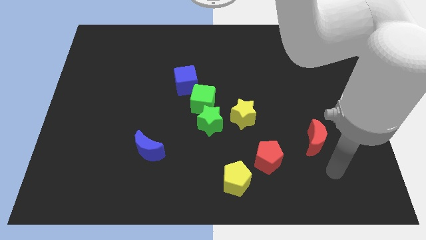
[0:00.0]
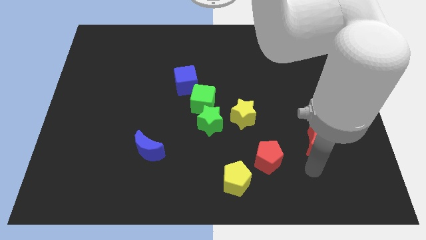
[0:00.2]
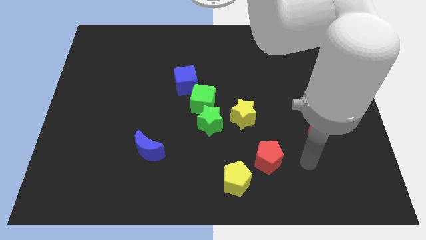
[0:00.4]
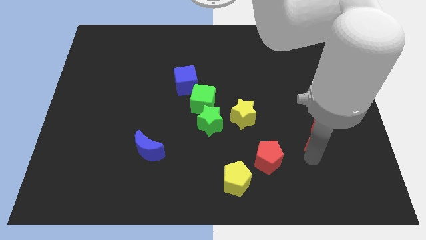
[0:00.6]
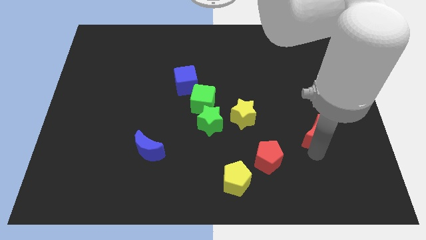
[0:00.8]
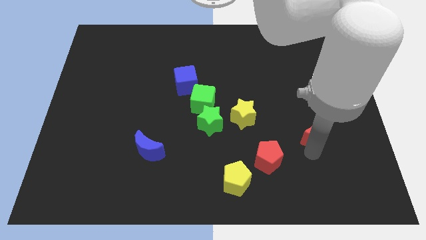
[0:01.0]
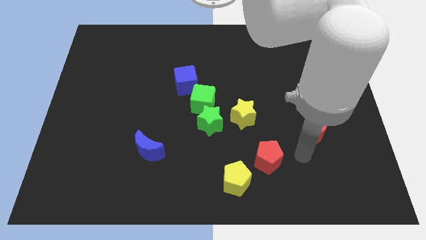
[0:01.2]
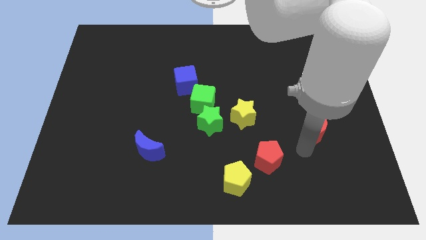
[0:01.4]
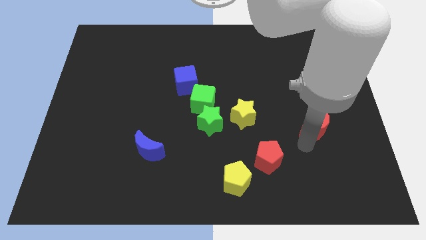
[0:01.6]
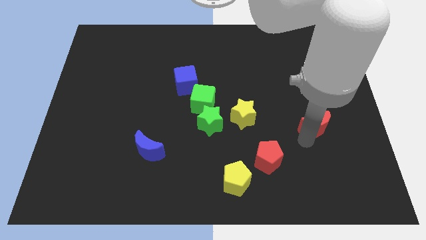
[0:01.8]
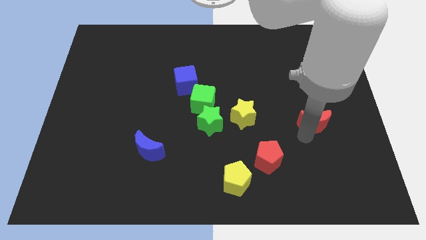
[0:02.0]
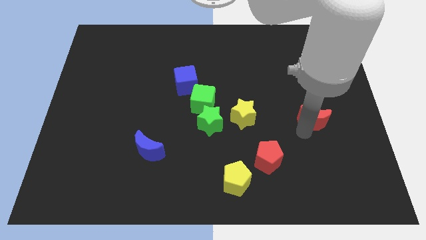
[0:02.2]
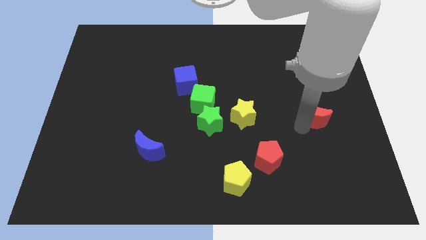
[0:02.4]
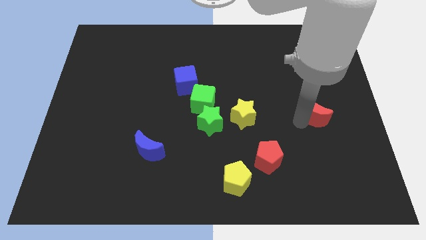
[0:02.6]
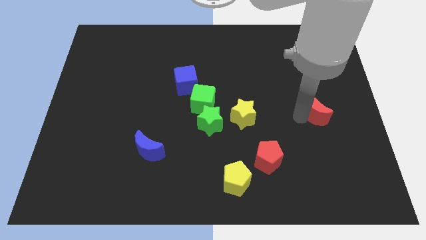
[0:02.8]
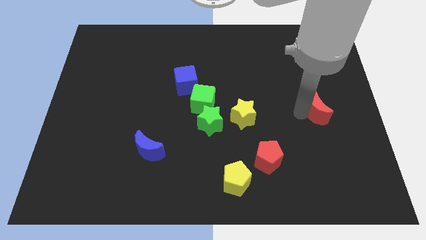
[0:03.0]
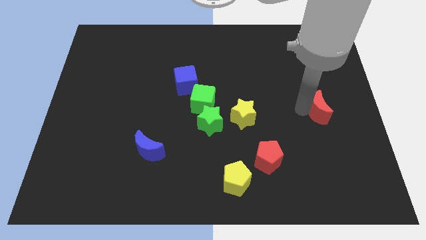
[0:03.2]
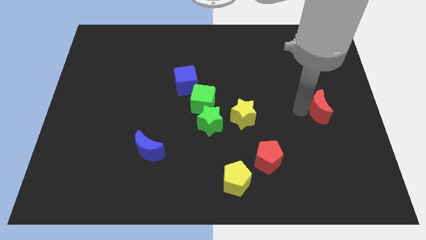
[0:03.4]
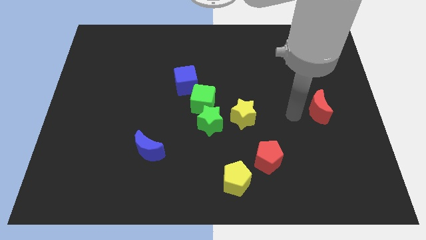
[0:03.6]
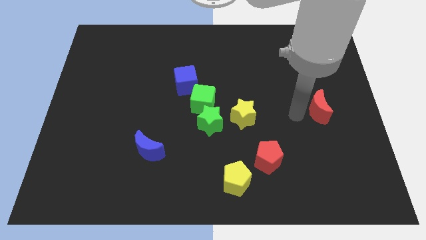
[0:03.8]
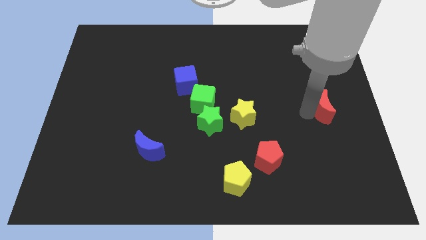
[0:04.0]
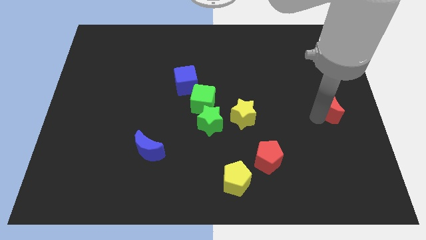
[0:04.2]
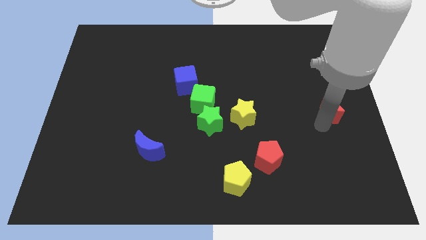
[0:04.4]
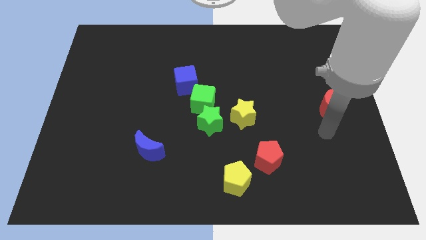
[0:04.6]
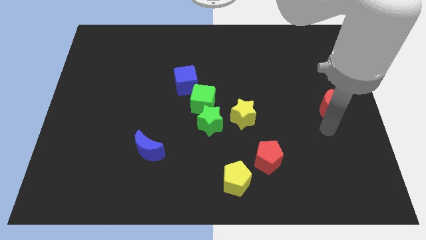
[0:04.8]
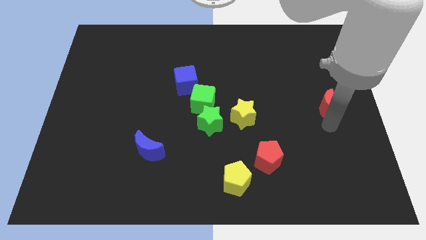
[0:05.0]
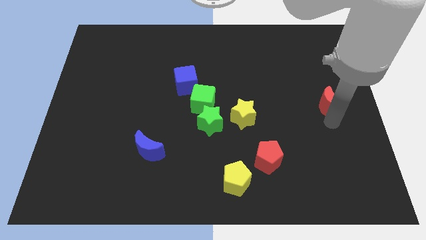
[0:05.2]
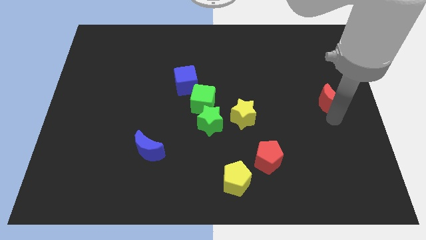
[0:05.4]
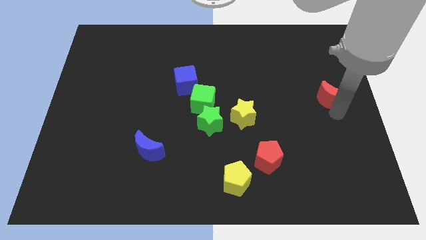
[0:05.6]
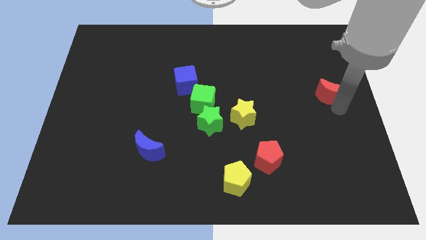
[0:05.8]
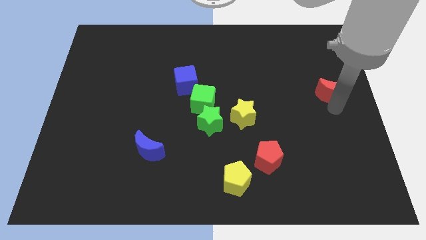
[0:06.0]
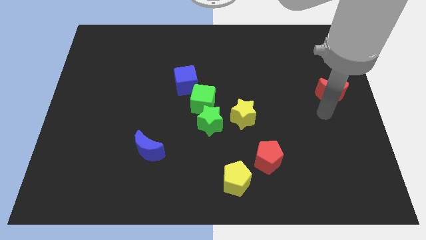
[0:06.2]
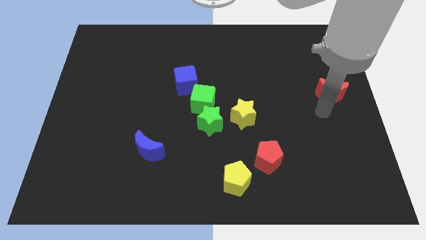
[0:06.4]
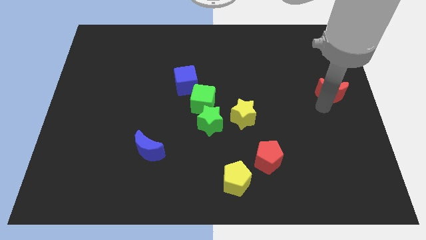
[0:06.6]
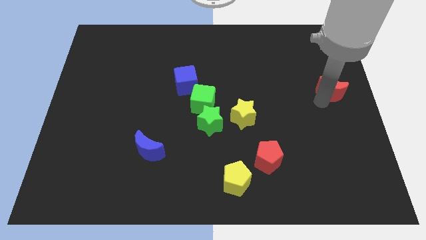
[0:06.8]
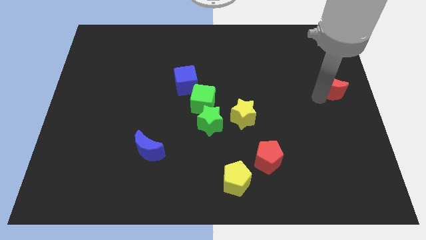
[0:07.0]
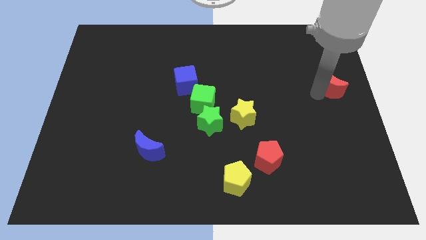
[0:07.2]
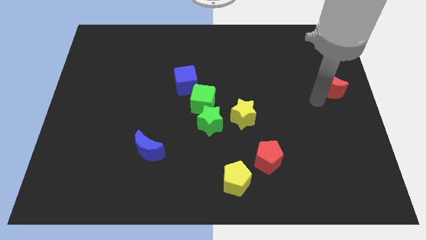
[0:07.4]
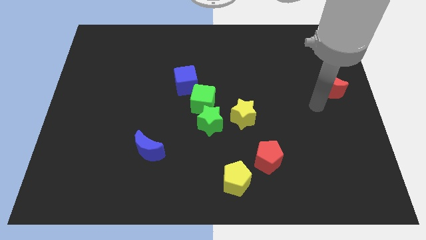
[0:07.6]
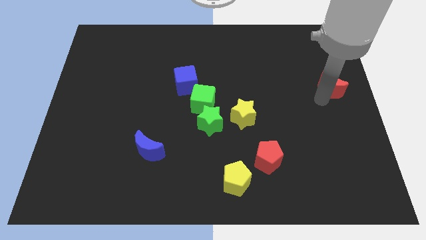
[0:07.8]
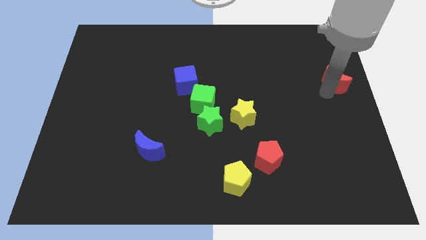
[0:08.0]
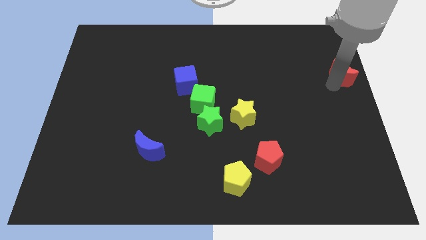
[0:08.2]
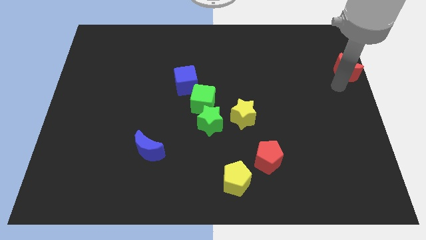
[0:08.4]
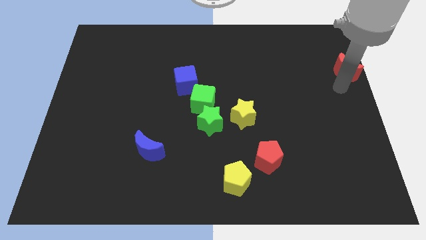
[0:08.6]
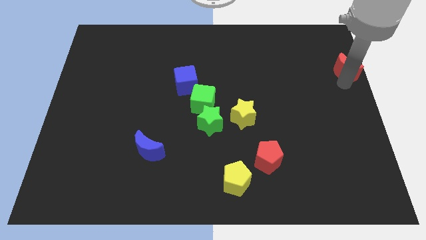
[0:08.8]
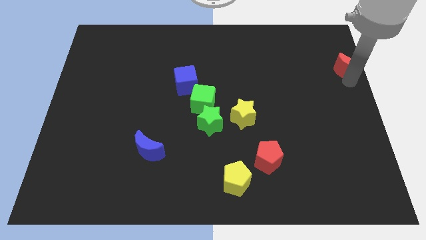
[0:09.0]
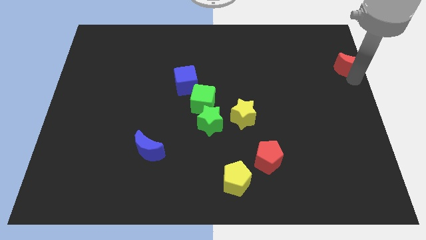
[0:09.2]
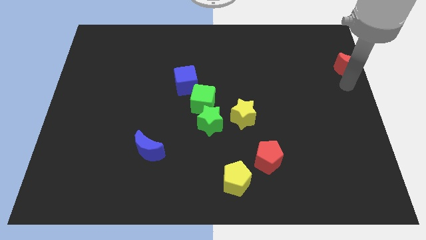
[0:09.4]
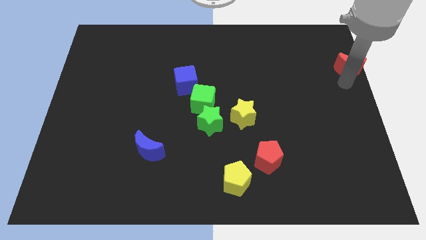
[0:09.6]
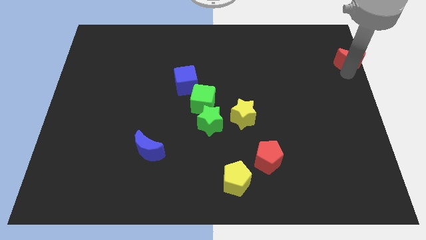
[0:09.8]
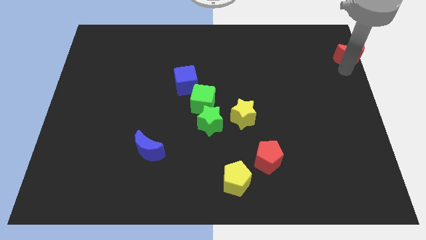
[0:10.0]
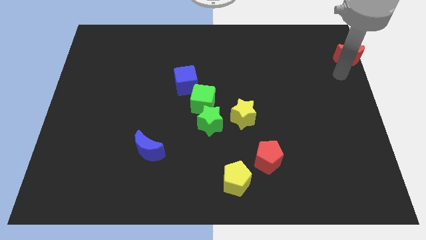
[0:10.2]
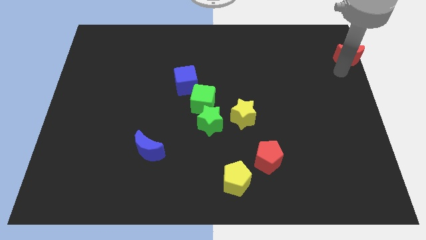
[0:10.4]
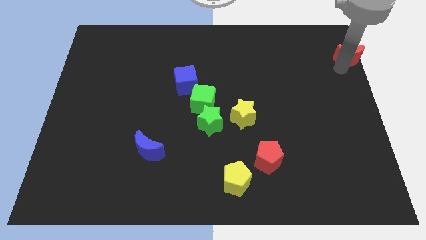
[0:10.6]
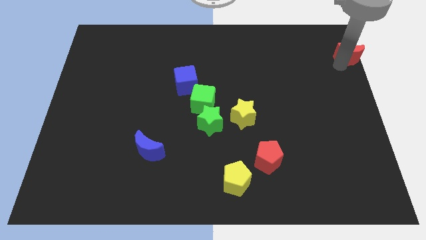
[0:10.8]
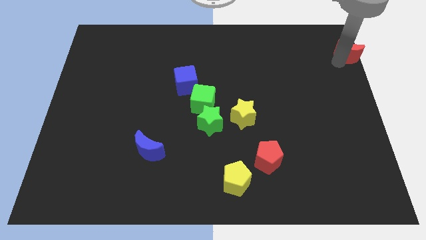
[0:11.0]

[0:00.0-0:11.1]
slide the red moon to the upper right corner
